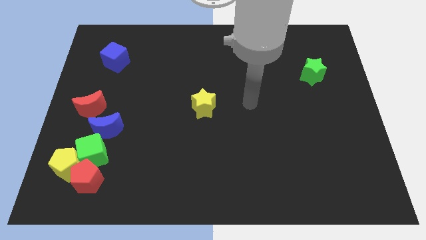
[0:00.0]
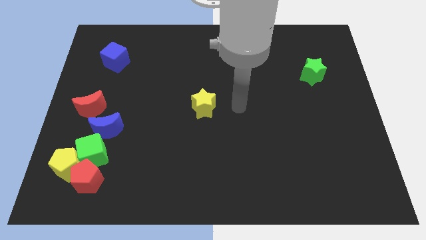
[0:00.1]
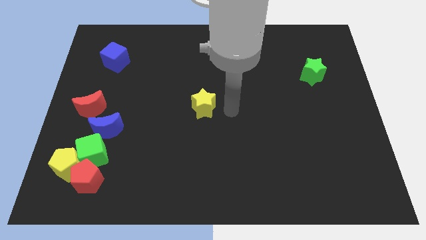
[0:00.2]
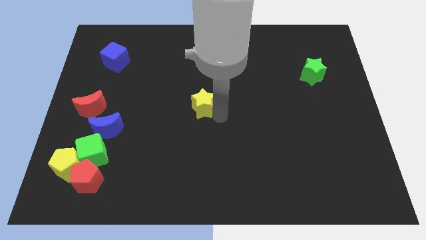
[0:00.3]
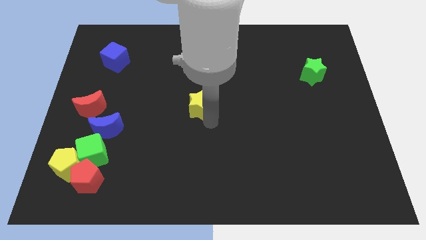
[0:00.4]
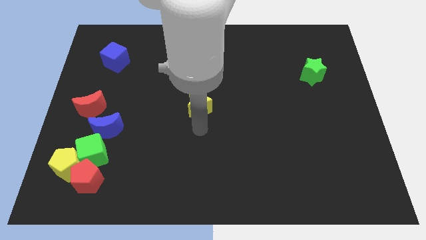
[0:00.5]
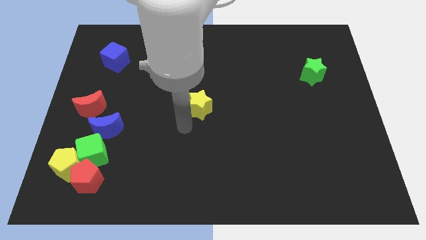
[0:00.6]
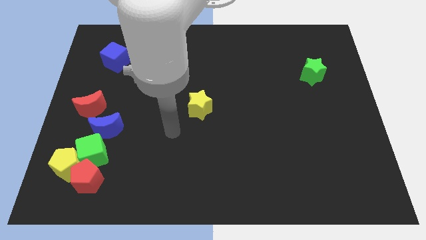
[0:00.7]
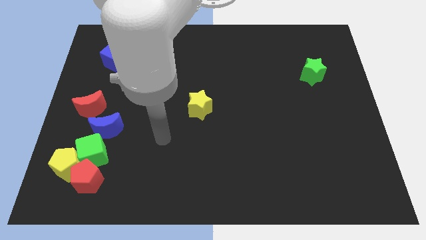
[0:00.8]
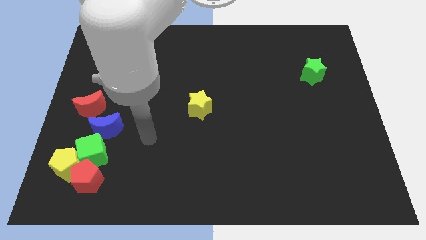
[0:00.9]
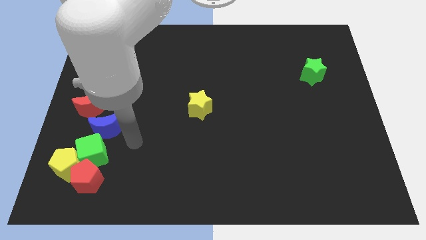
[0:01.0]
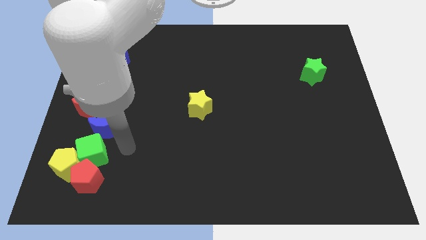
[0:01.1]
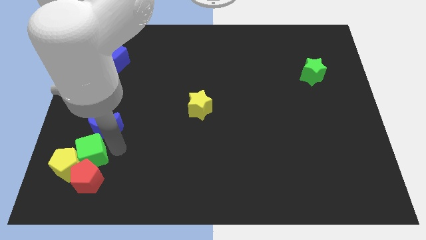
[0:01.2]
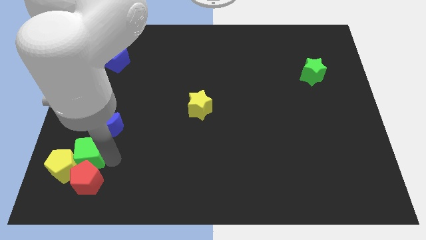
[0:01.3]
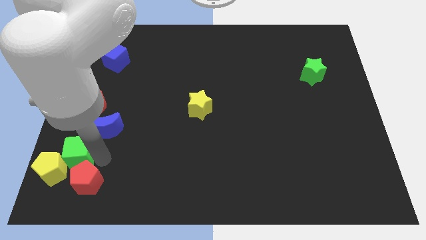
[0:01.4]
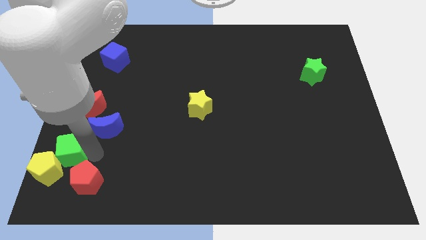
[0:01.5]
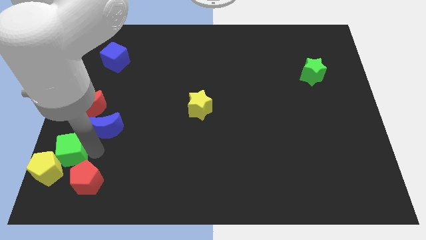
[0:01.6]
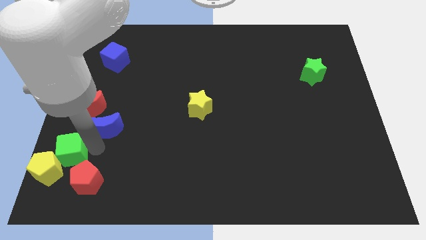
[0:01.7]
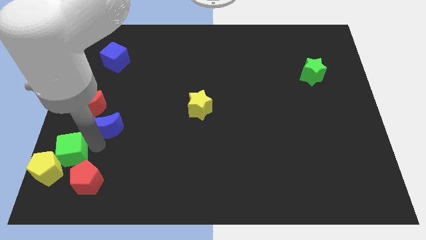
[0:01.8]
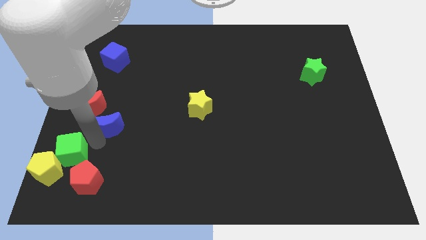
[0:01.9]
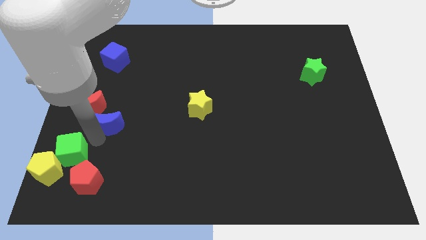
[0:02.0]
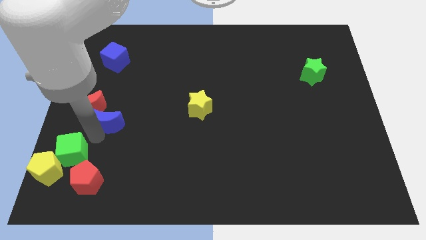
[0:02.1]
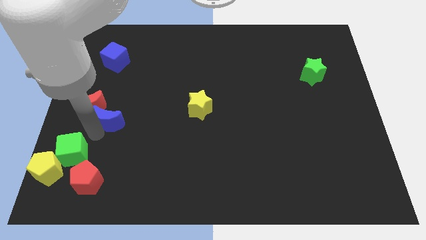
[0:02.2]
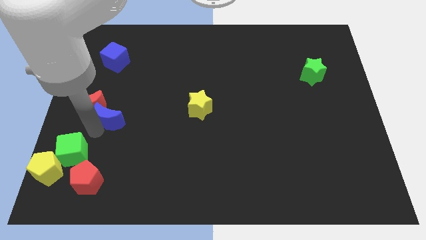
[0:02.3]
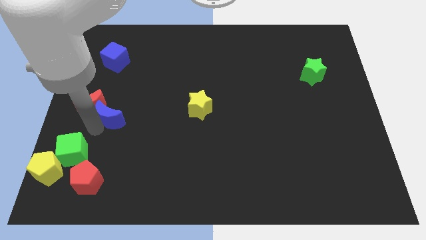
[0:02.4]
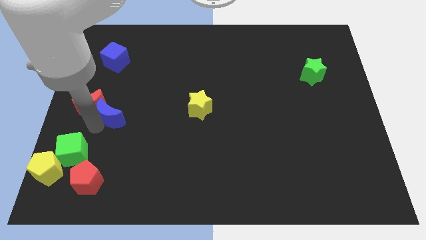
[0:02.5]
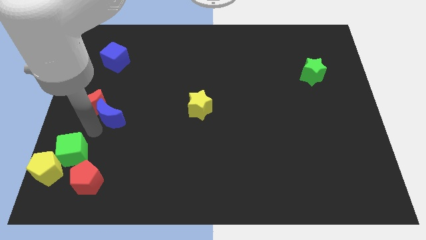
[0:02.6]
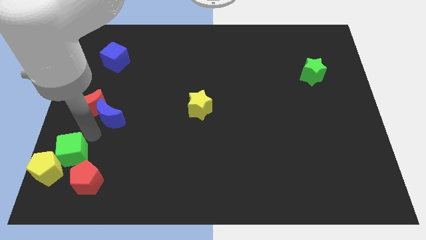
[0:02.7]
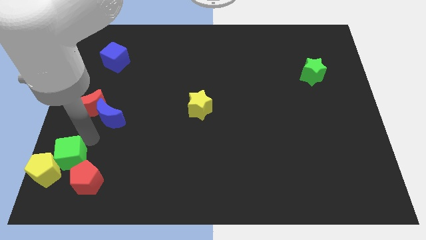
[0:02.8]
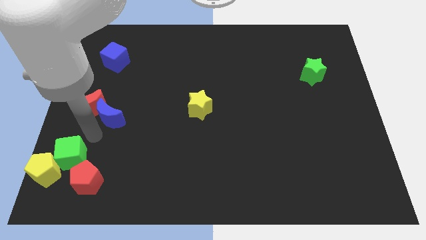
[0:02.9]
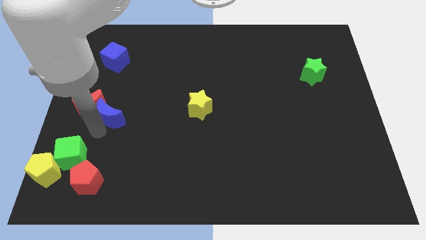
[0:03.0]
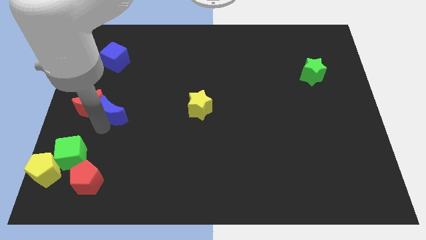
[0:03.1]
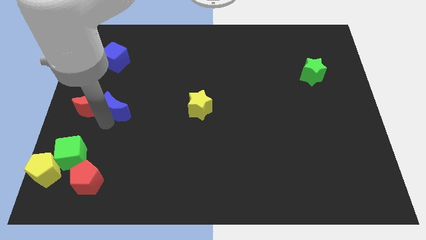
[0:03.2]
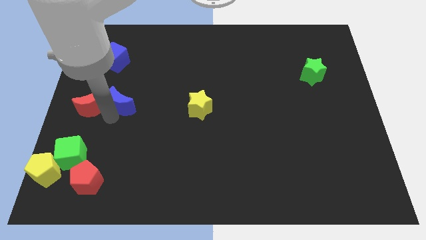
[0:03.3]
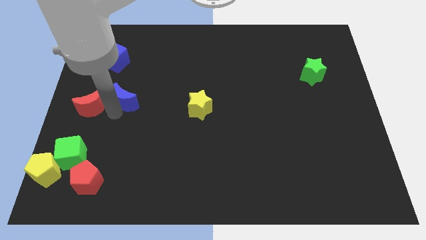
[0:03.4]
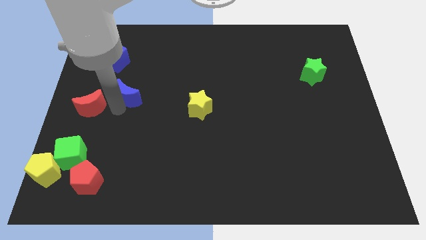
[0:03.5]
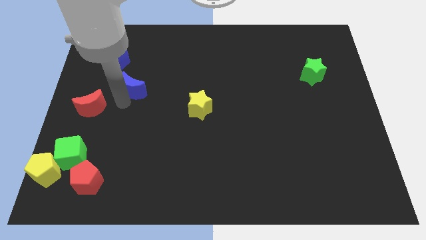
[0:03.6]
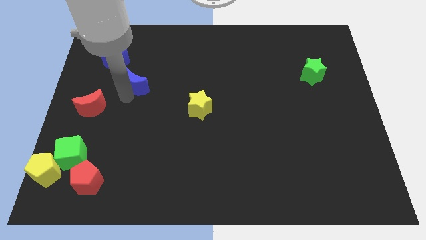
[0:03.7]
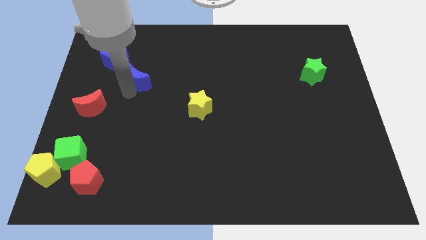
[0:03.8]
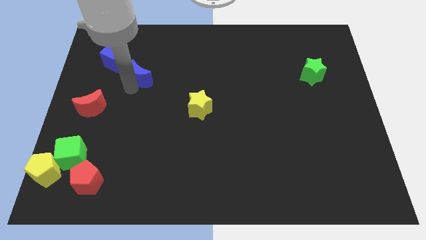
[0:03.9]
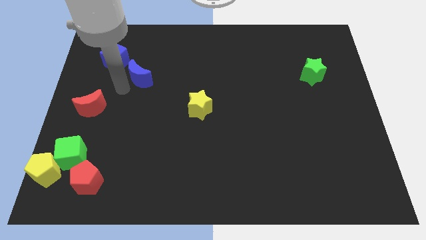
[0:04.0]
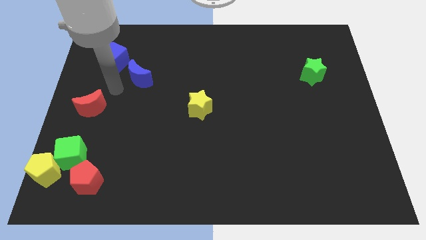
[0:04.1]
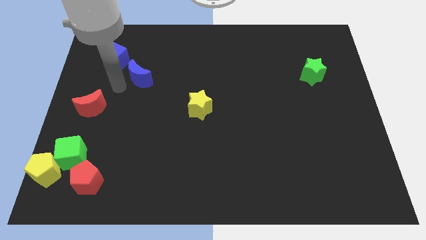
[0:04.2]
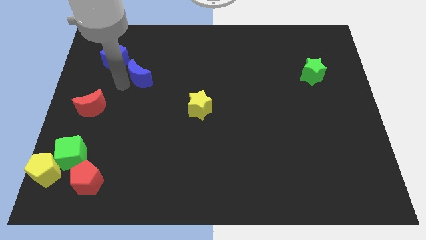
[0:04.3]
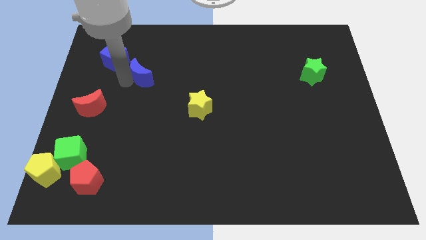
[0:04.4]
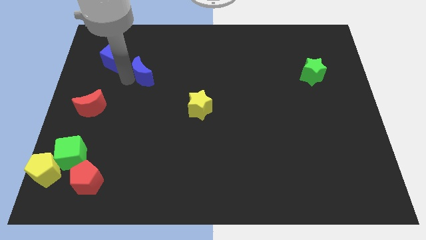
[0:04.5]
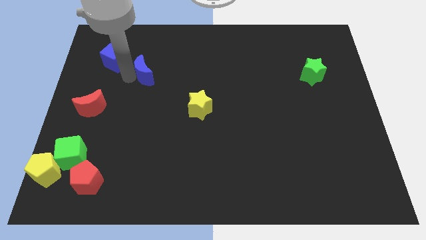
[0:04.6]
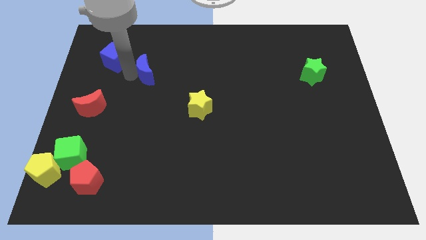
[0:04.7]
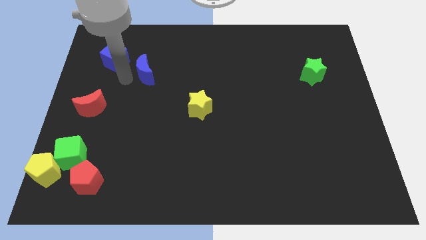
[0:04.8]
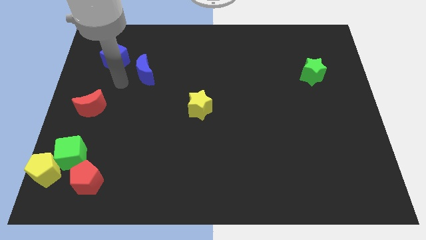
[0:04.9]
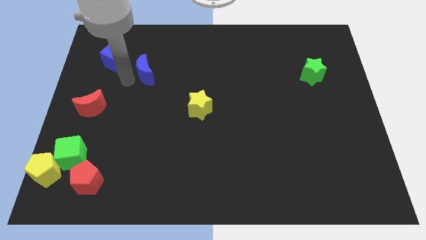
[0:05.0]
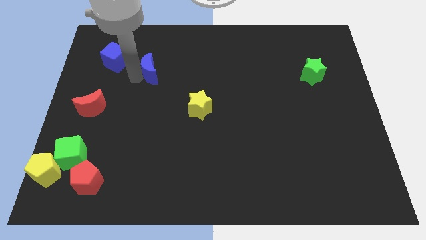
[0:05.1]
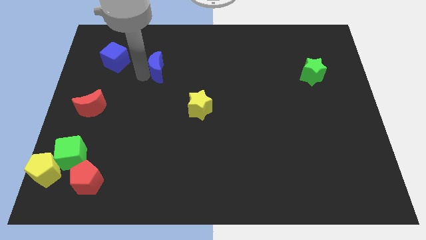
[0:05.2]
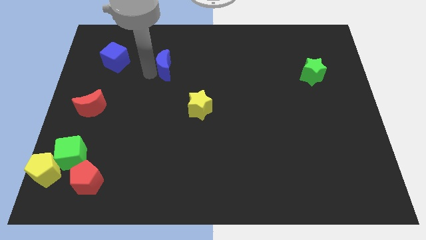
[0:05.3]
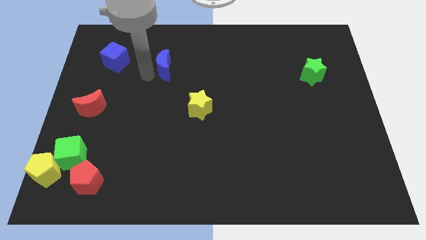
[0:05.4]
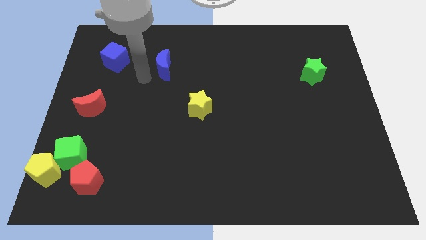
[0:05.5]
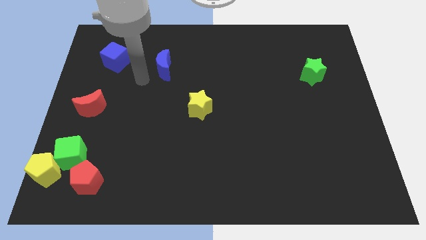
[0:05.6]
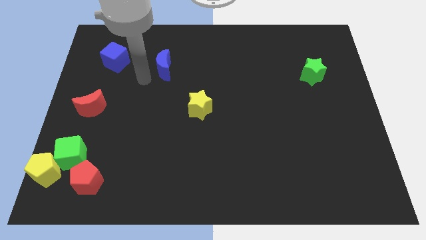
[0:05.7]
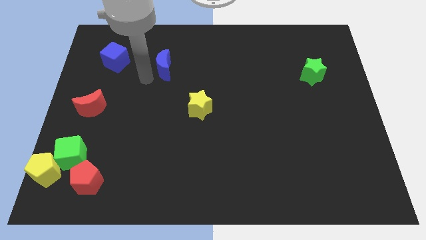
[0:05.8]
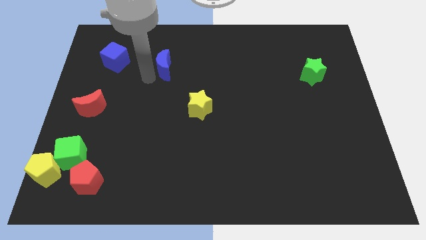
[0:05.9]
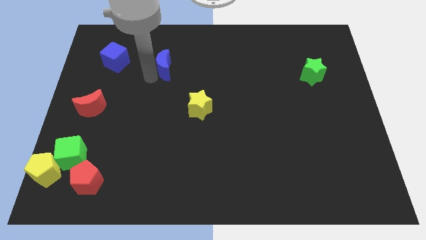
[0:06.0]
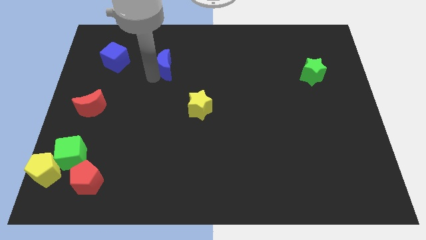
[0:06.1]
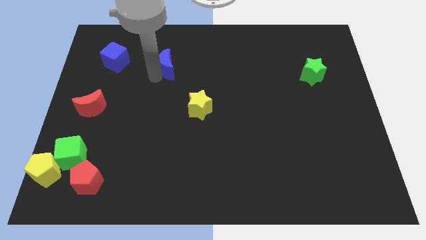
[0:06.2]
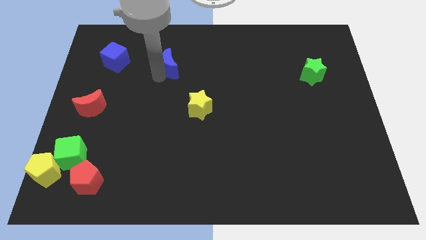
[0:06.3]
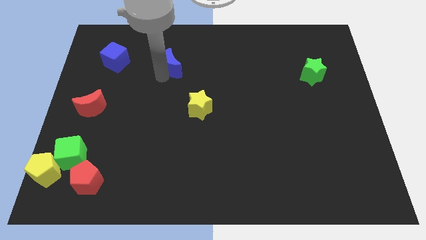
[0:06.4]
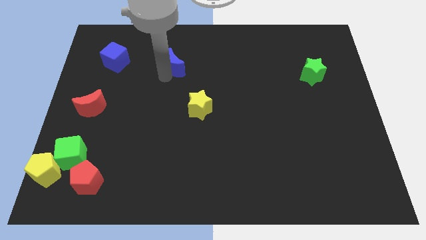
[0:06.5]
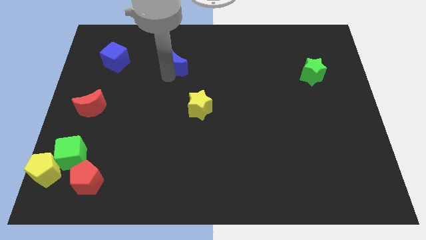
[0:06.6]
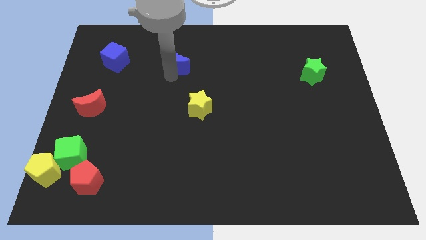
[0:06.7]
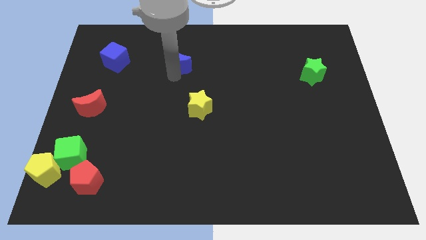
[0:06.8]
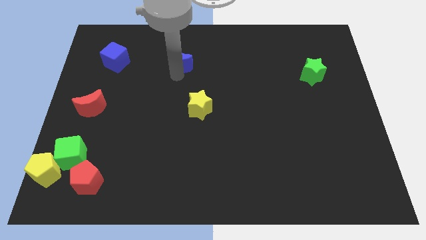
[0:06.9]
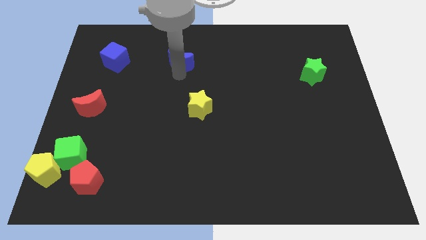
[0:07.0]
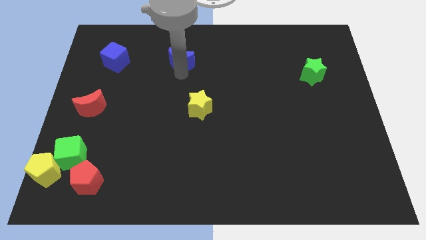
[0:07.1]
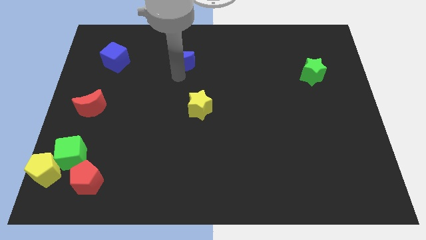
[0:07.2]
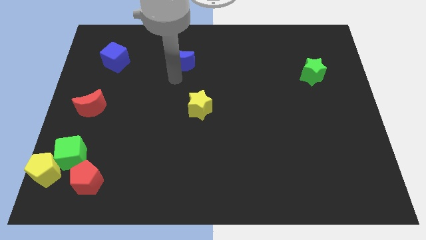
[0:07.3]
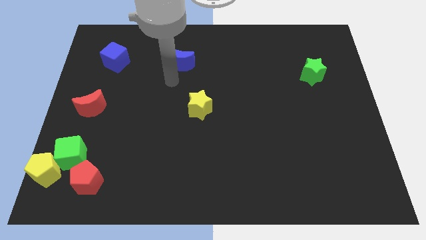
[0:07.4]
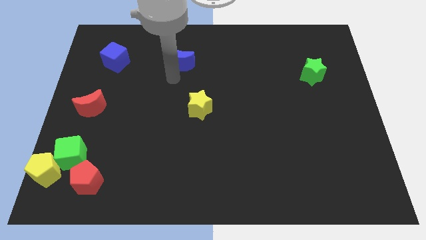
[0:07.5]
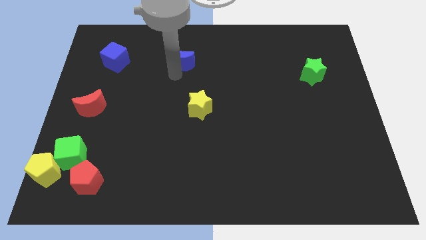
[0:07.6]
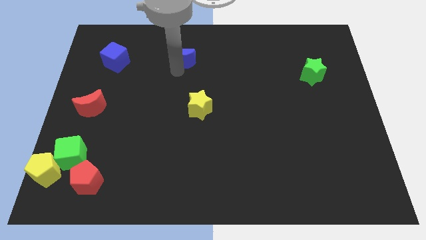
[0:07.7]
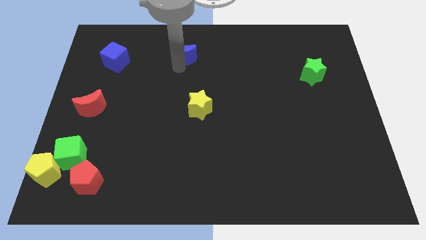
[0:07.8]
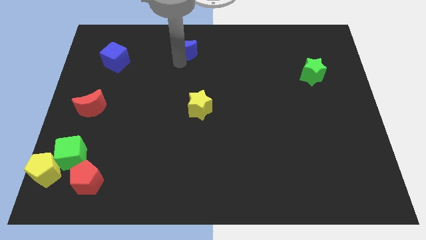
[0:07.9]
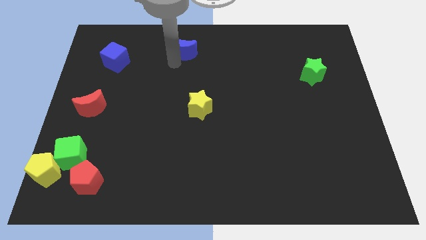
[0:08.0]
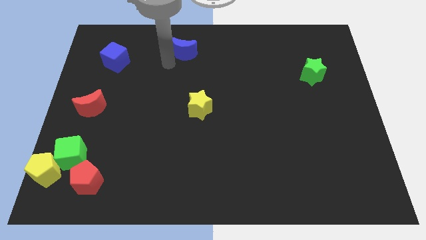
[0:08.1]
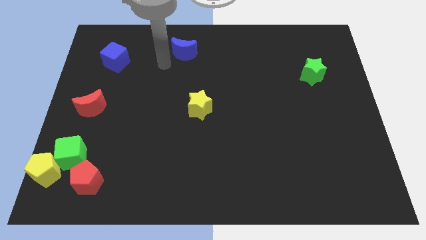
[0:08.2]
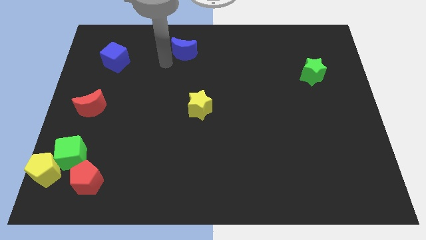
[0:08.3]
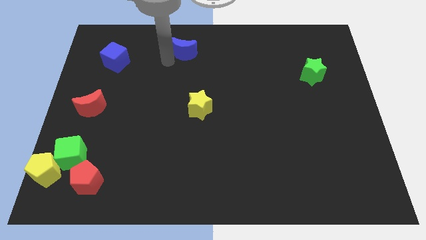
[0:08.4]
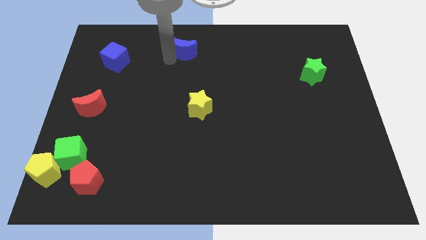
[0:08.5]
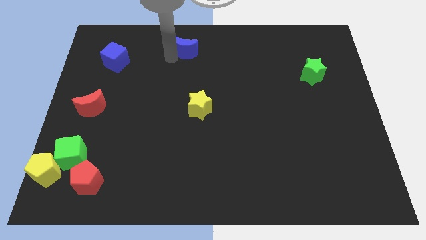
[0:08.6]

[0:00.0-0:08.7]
put the blue moon to the top
